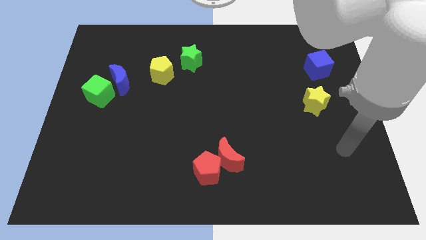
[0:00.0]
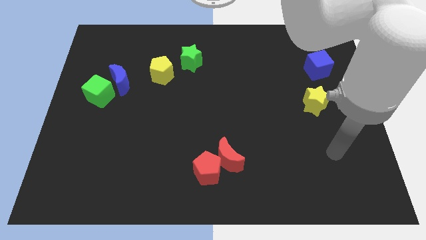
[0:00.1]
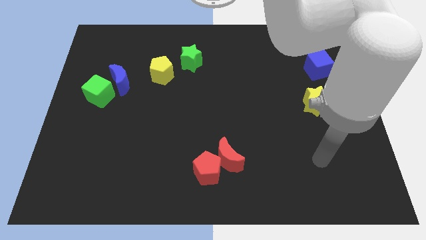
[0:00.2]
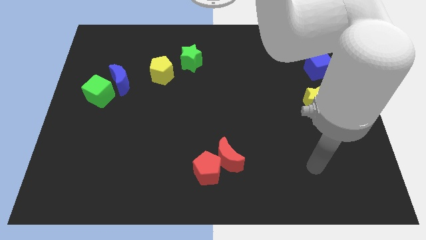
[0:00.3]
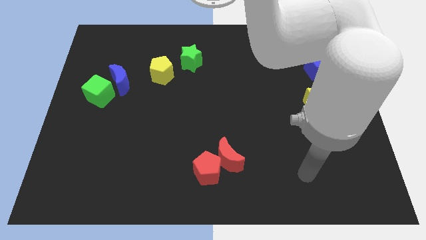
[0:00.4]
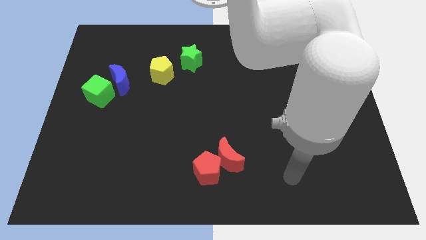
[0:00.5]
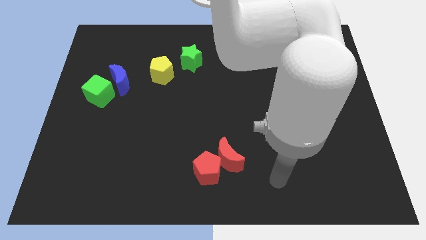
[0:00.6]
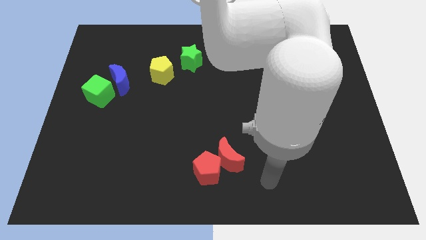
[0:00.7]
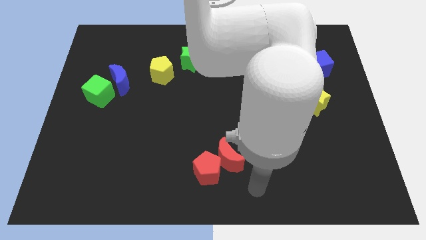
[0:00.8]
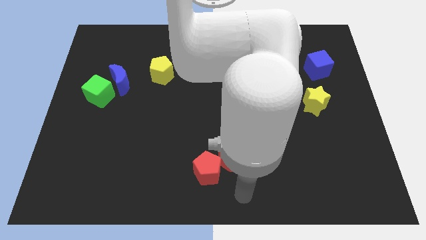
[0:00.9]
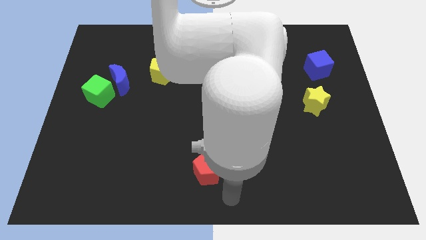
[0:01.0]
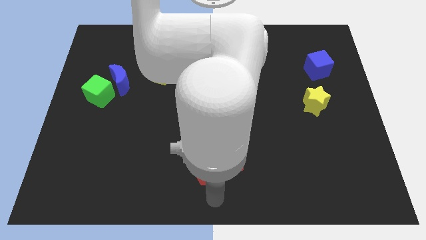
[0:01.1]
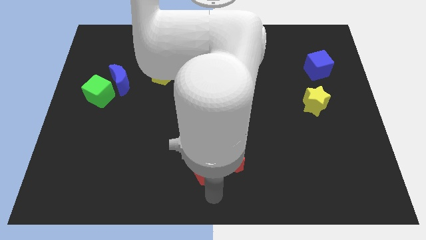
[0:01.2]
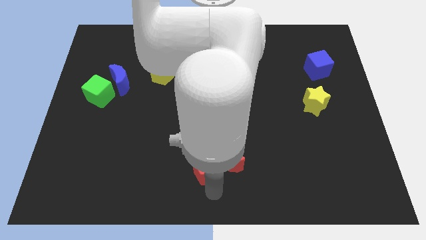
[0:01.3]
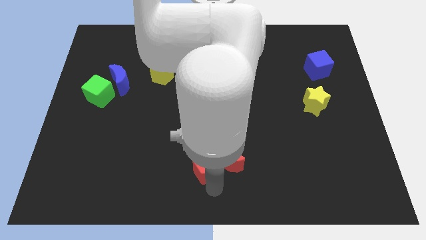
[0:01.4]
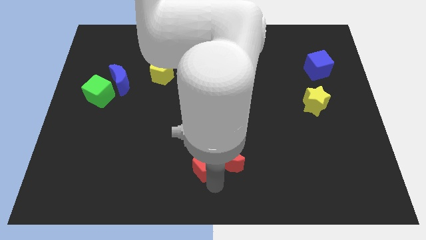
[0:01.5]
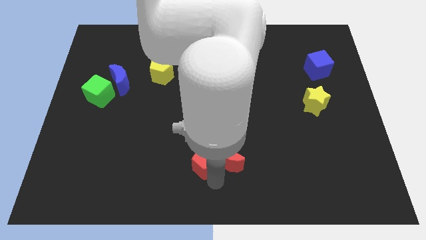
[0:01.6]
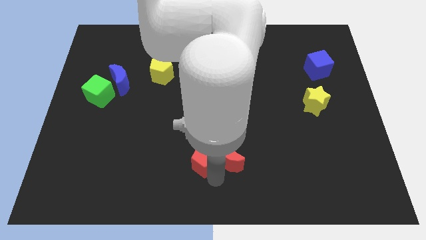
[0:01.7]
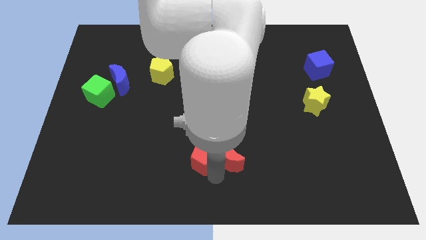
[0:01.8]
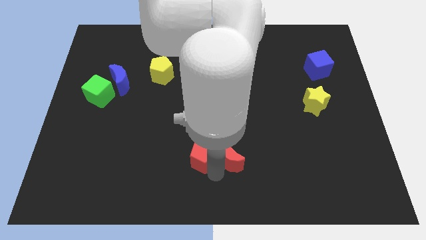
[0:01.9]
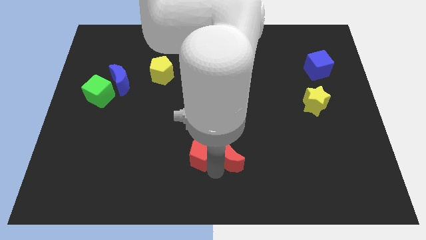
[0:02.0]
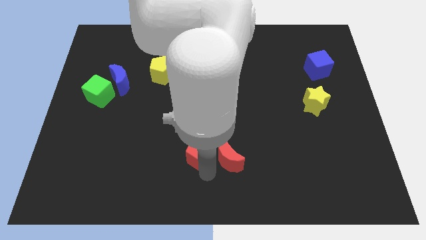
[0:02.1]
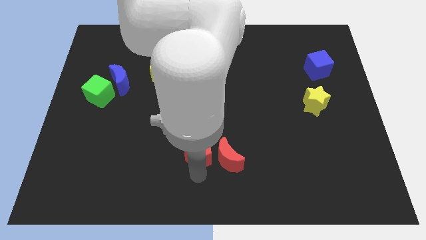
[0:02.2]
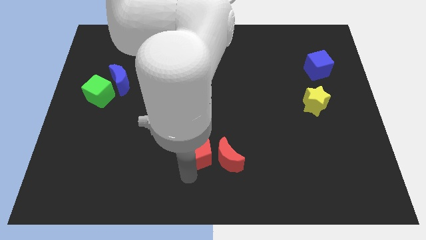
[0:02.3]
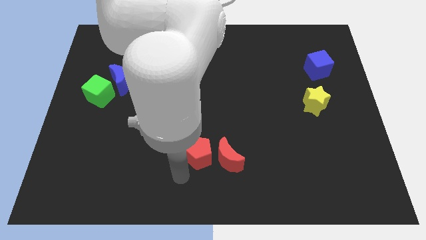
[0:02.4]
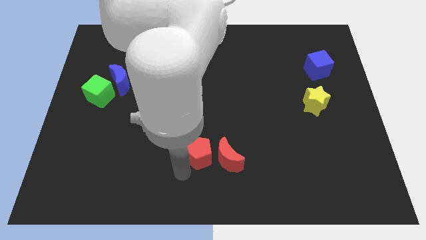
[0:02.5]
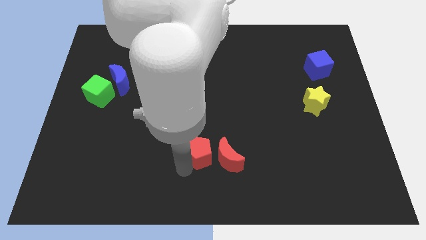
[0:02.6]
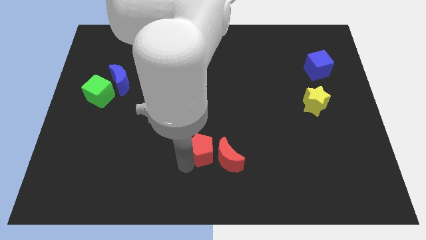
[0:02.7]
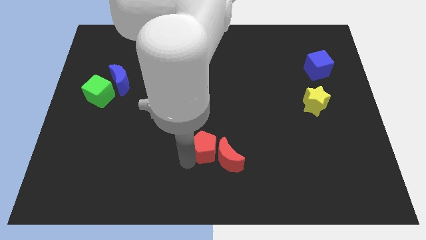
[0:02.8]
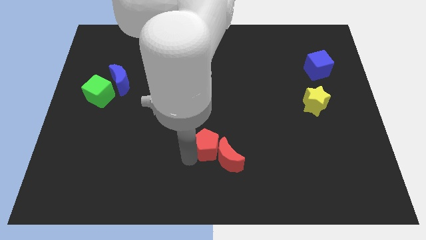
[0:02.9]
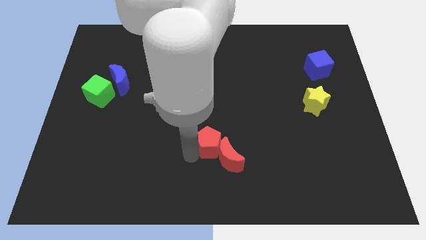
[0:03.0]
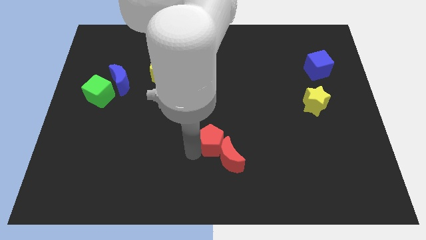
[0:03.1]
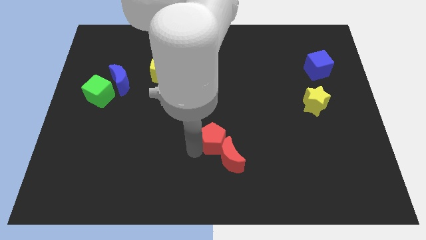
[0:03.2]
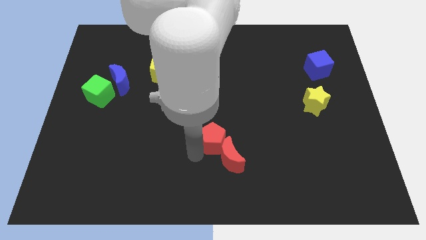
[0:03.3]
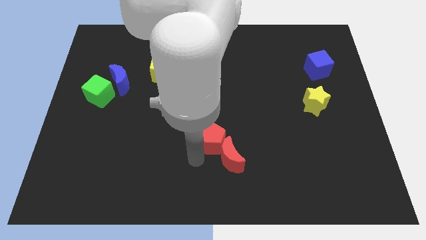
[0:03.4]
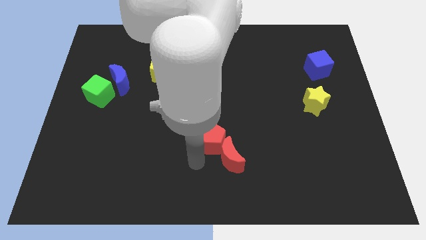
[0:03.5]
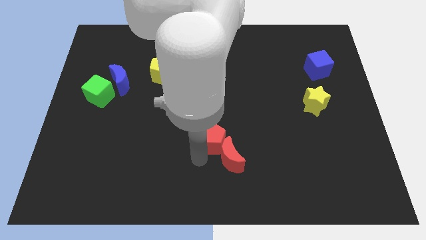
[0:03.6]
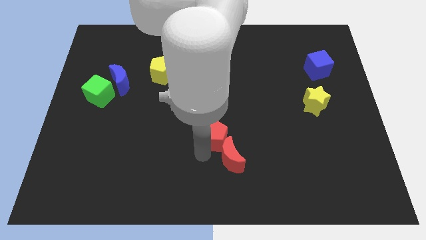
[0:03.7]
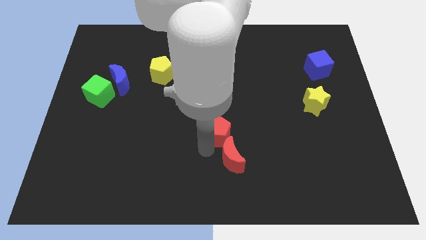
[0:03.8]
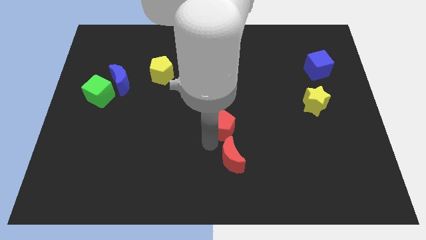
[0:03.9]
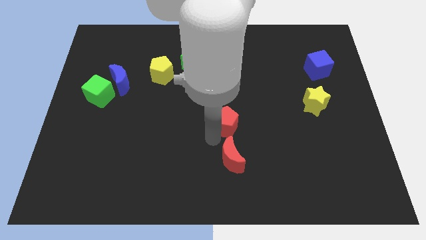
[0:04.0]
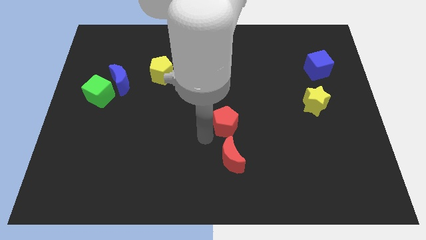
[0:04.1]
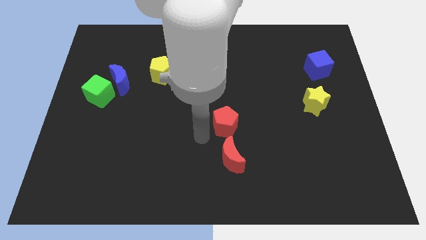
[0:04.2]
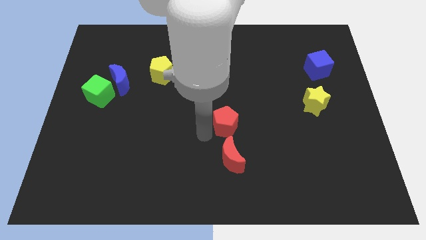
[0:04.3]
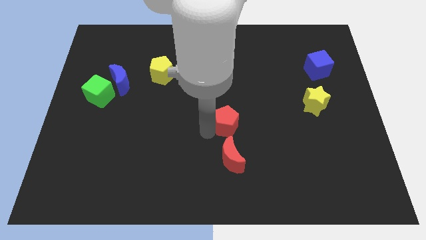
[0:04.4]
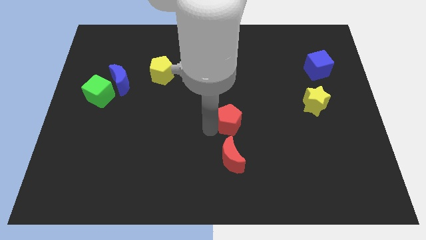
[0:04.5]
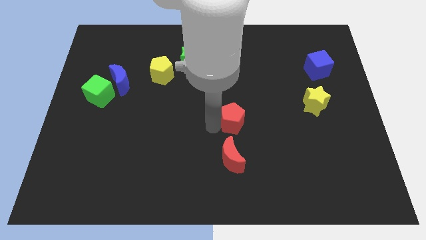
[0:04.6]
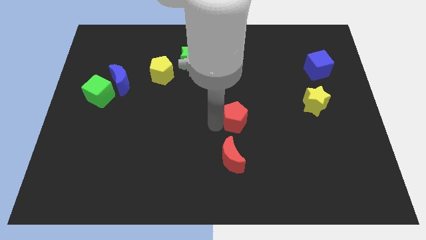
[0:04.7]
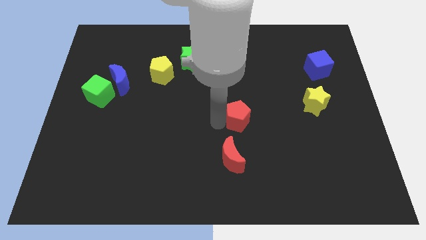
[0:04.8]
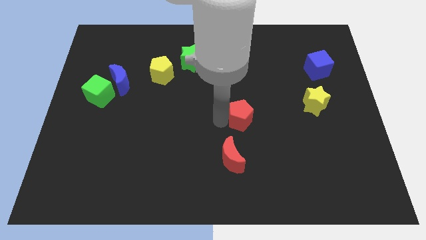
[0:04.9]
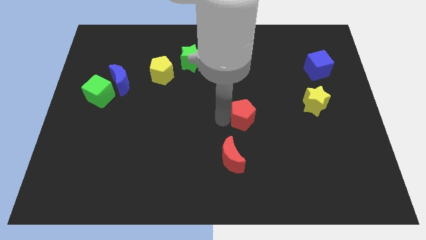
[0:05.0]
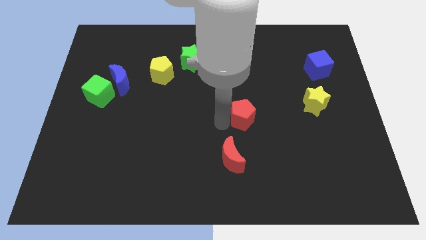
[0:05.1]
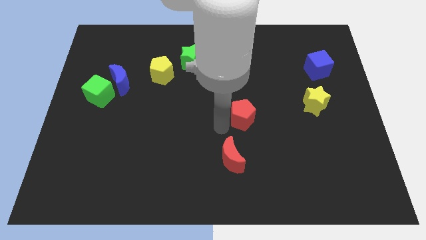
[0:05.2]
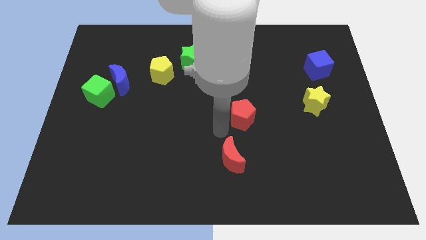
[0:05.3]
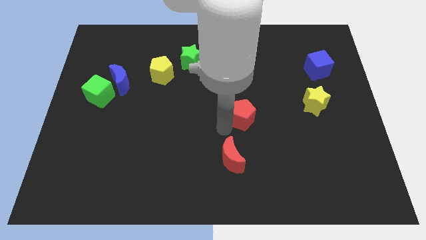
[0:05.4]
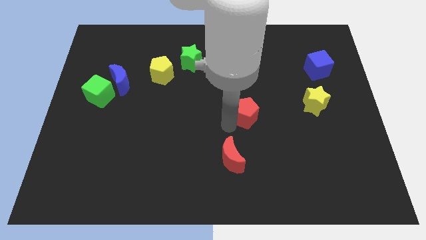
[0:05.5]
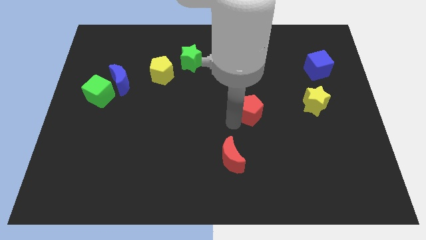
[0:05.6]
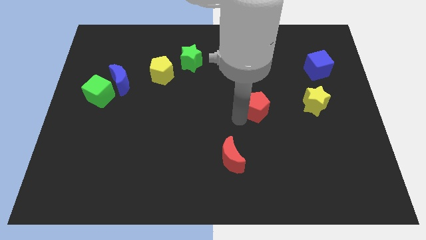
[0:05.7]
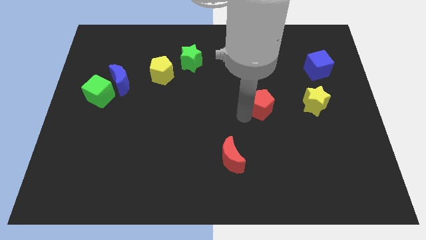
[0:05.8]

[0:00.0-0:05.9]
push the red pentagon upwards and to the right

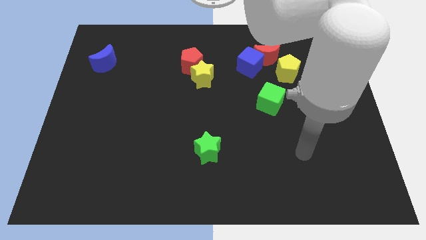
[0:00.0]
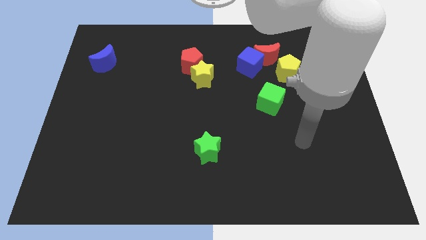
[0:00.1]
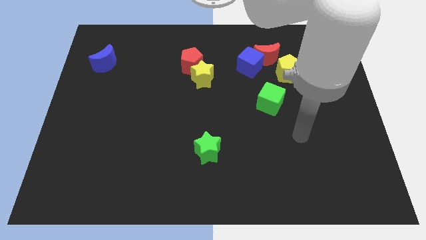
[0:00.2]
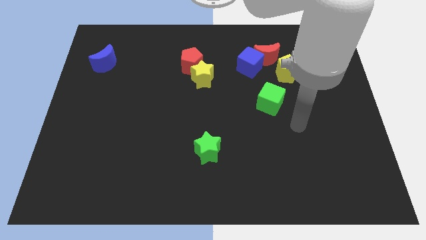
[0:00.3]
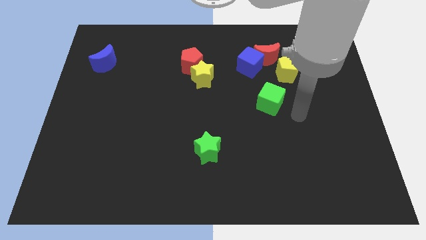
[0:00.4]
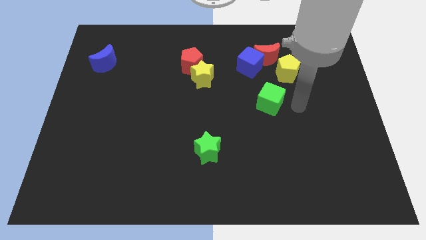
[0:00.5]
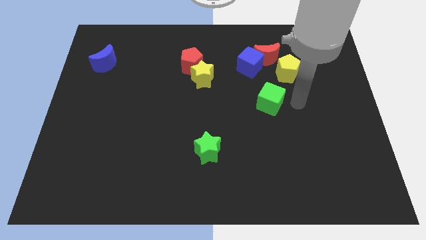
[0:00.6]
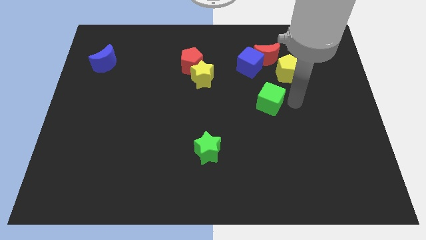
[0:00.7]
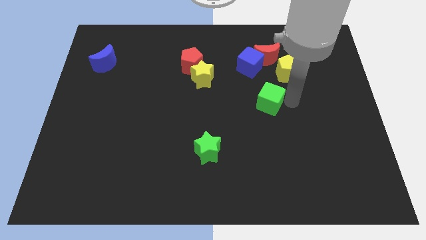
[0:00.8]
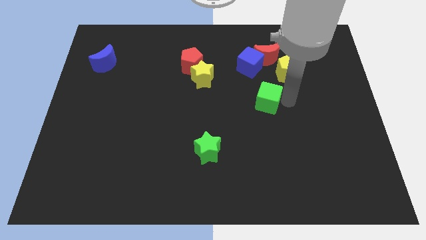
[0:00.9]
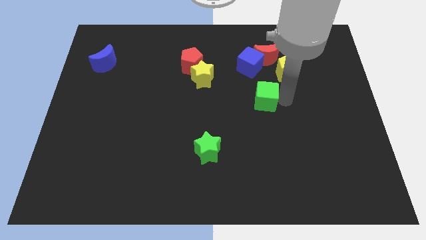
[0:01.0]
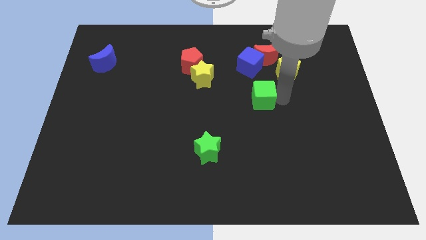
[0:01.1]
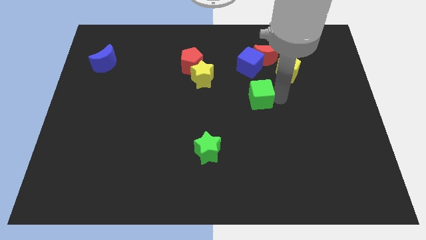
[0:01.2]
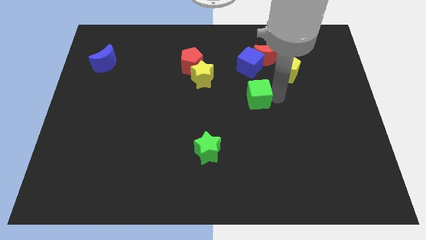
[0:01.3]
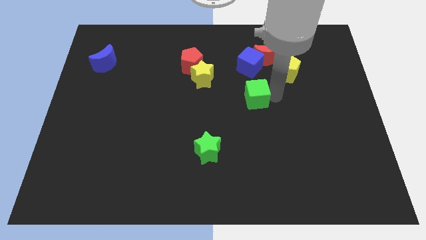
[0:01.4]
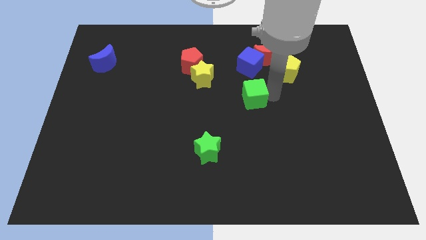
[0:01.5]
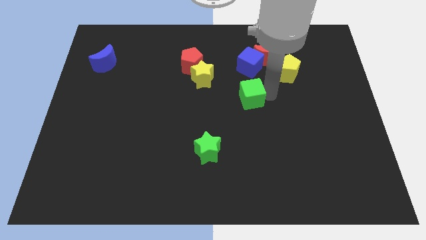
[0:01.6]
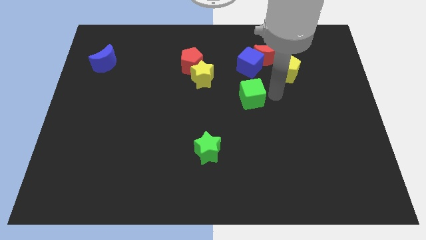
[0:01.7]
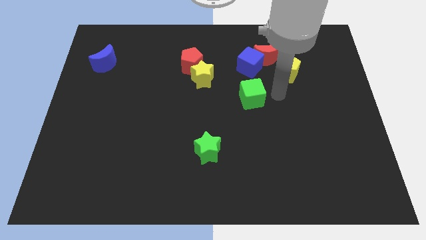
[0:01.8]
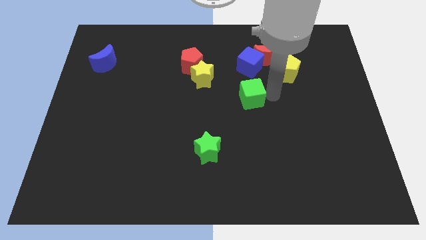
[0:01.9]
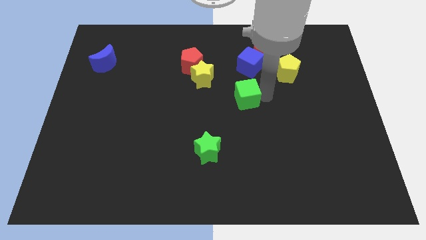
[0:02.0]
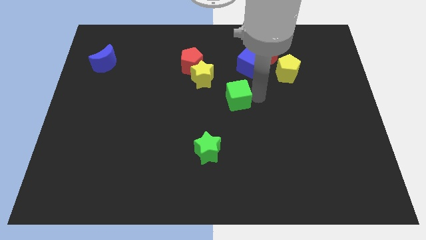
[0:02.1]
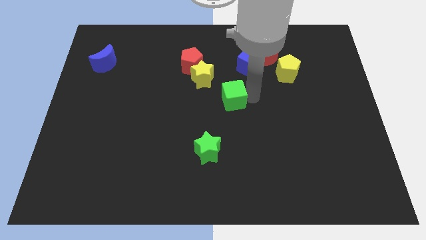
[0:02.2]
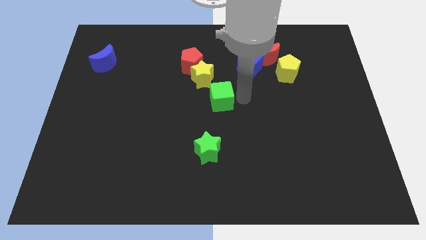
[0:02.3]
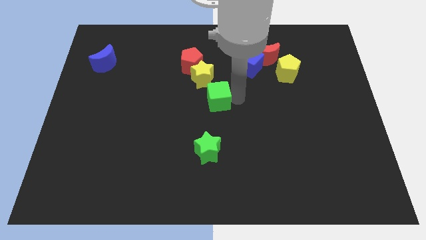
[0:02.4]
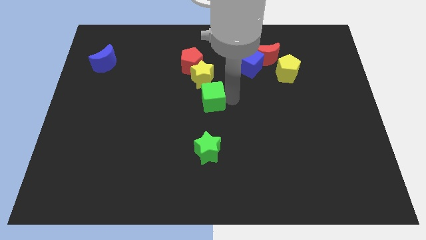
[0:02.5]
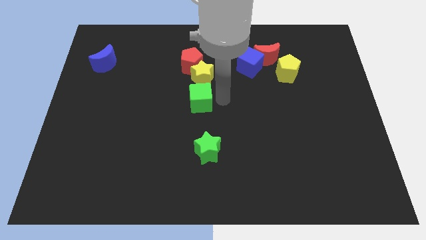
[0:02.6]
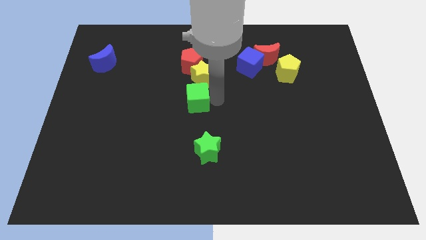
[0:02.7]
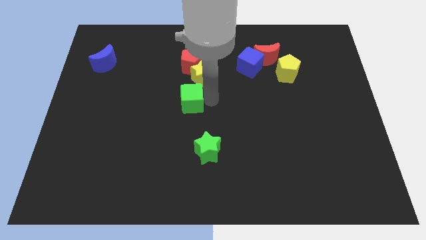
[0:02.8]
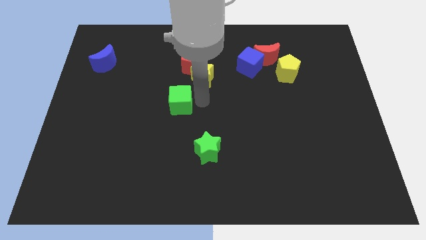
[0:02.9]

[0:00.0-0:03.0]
slide the green cube left
